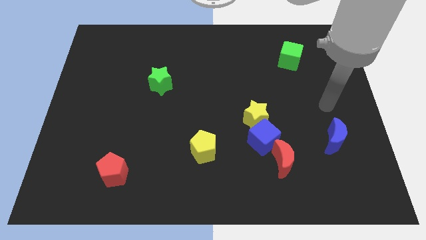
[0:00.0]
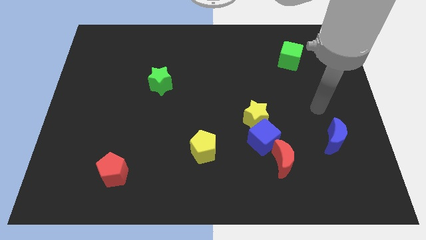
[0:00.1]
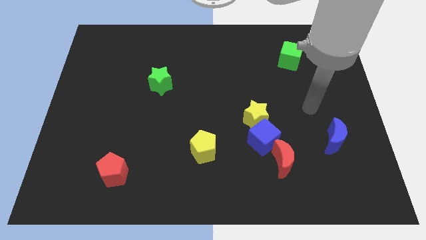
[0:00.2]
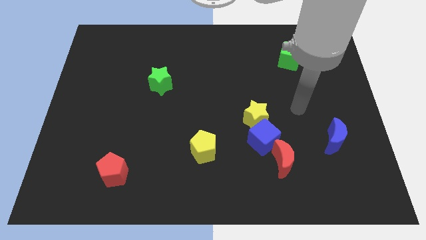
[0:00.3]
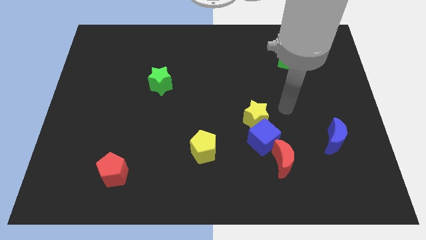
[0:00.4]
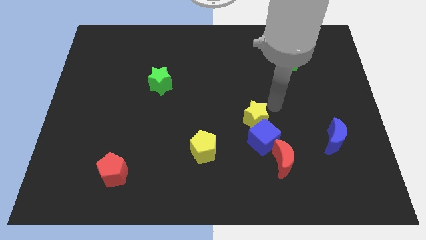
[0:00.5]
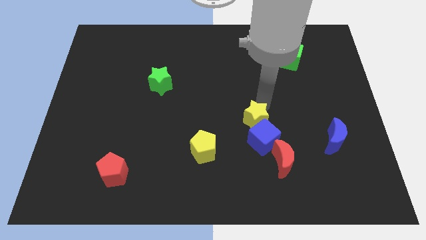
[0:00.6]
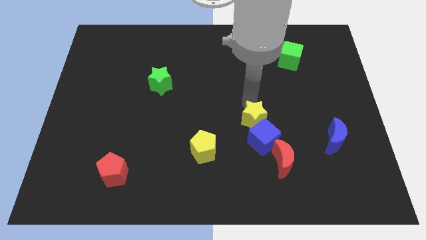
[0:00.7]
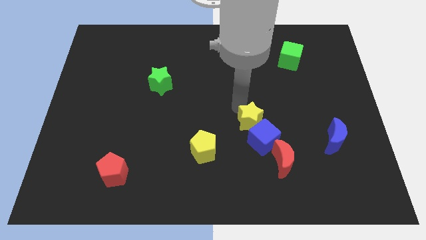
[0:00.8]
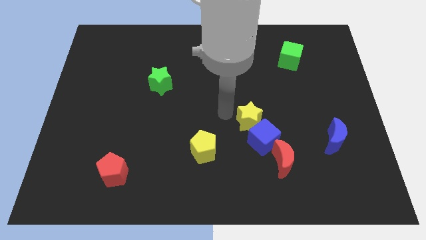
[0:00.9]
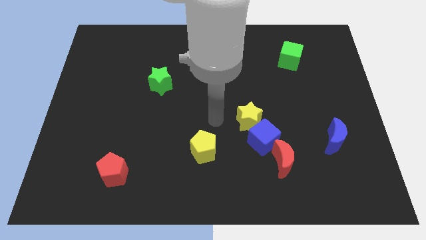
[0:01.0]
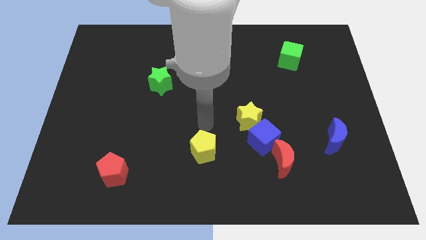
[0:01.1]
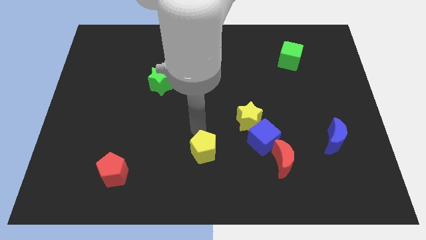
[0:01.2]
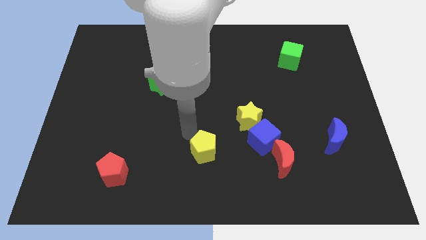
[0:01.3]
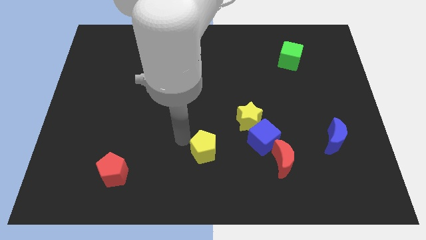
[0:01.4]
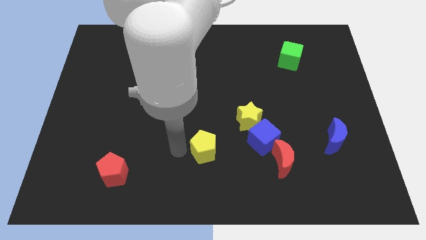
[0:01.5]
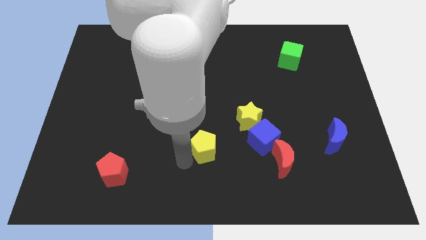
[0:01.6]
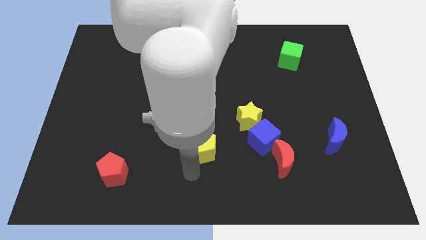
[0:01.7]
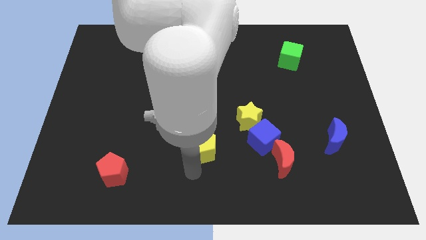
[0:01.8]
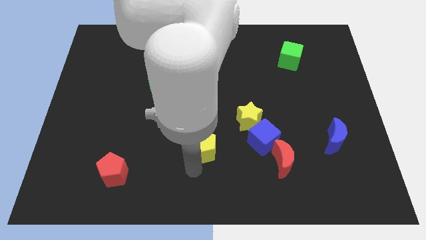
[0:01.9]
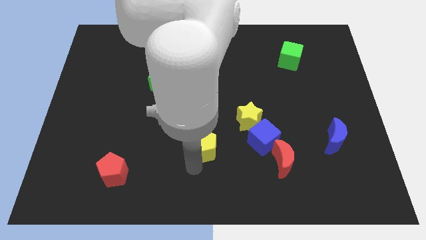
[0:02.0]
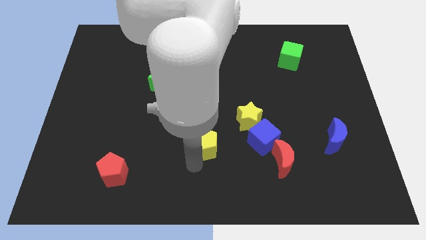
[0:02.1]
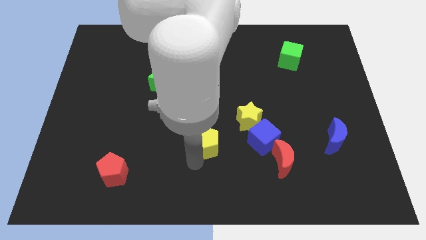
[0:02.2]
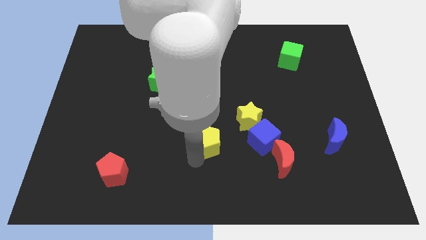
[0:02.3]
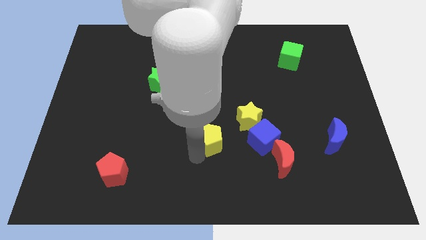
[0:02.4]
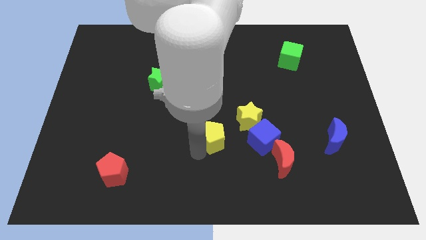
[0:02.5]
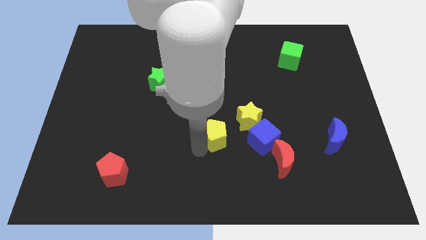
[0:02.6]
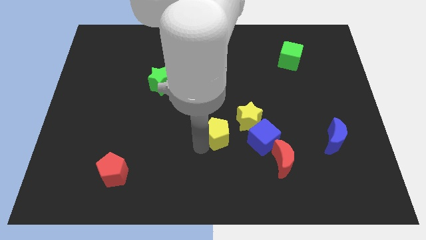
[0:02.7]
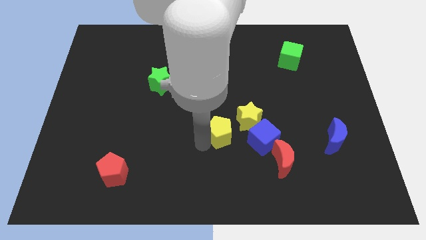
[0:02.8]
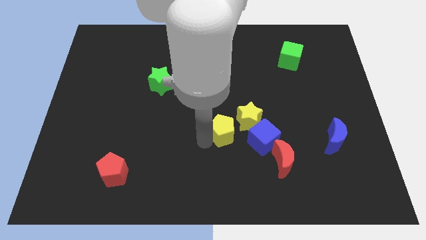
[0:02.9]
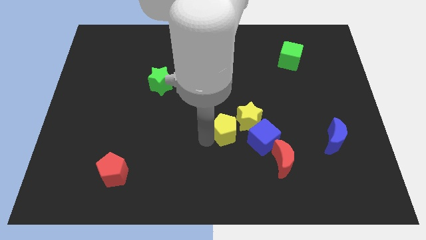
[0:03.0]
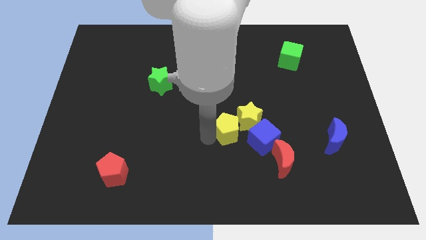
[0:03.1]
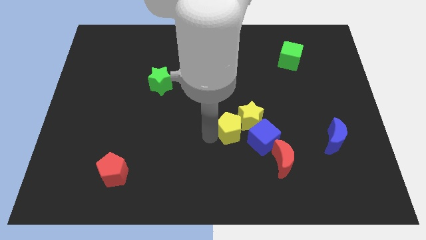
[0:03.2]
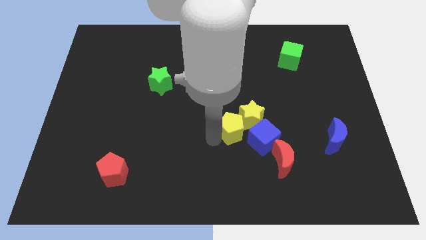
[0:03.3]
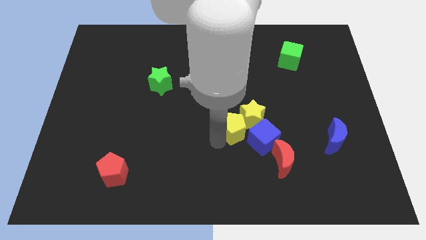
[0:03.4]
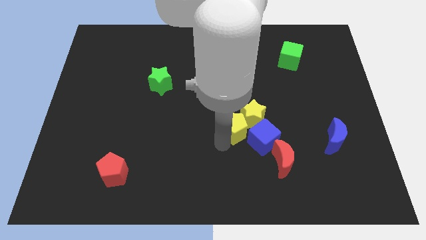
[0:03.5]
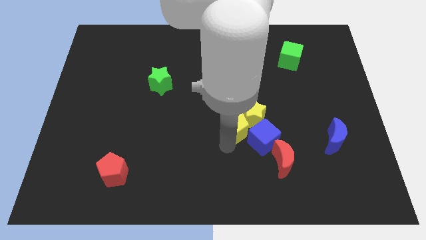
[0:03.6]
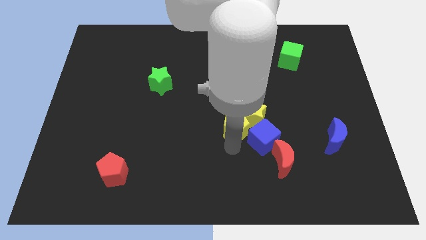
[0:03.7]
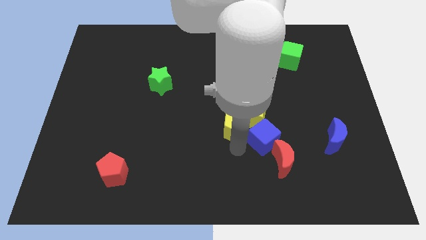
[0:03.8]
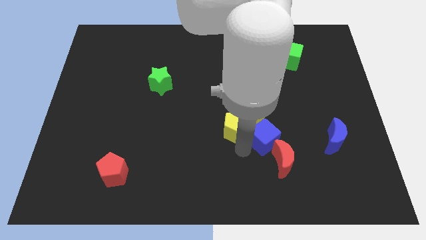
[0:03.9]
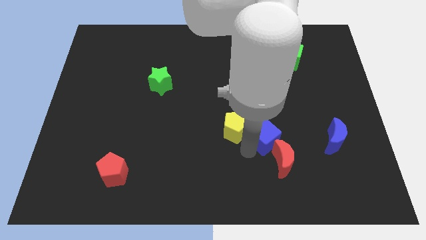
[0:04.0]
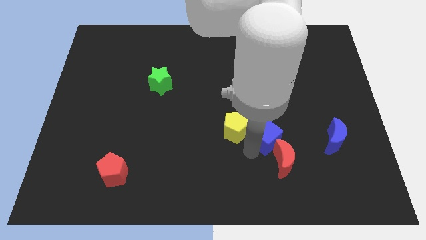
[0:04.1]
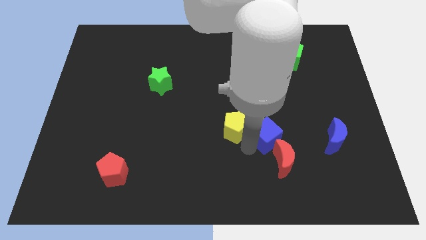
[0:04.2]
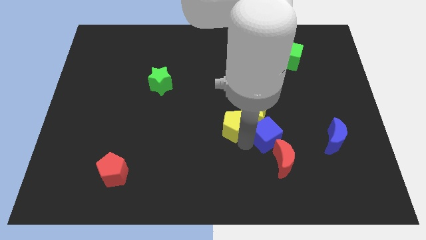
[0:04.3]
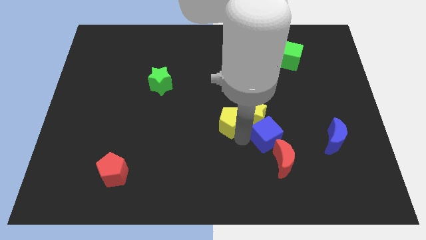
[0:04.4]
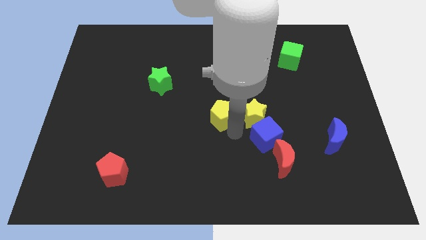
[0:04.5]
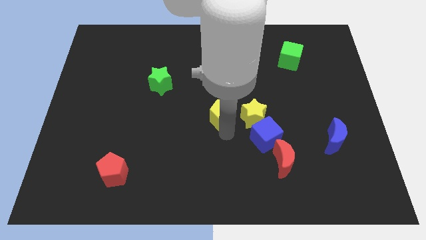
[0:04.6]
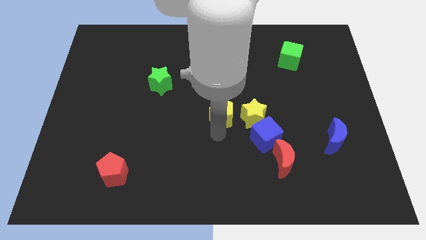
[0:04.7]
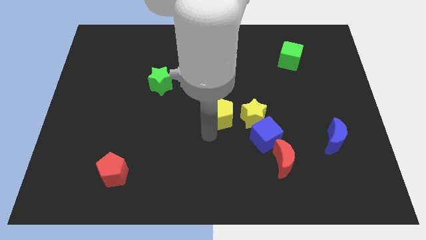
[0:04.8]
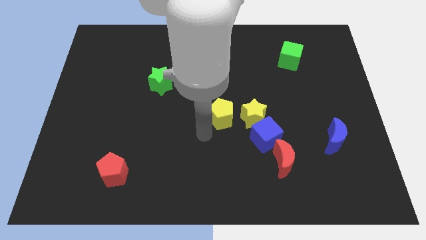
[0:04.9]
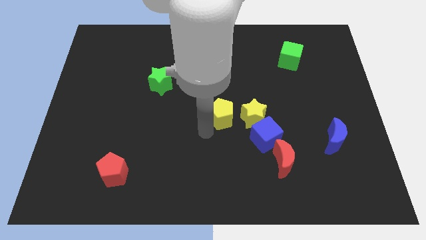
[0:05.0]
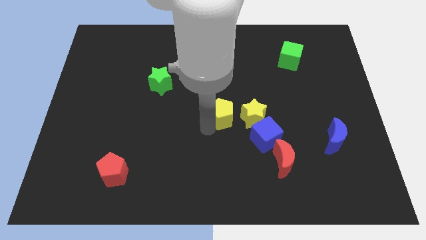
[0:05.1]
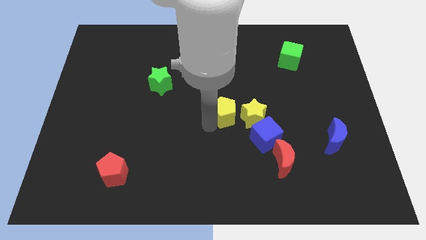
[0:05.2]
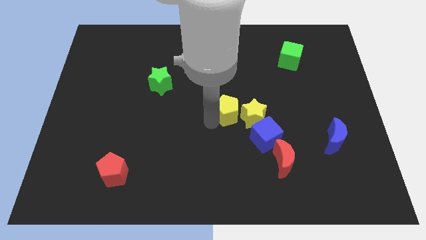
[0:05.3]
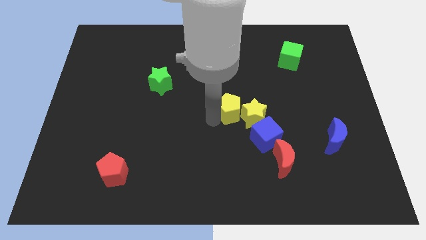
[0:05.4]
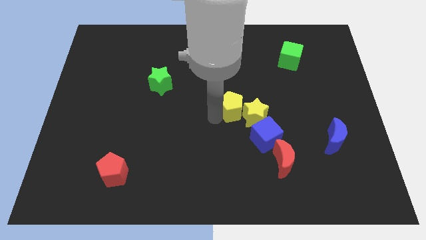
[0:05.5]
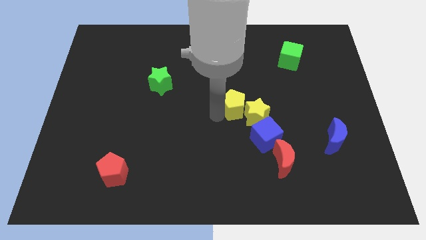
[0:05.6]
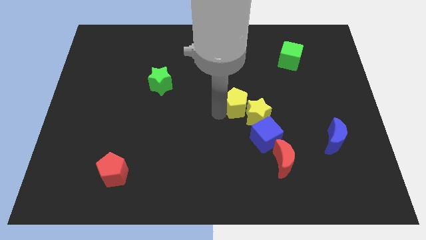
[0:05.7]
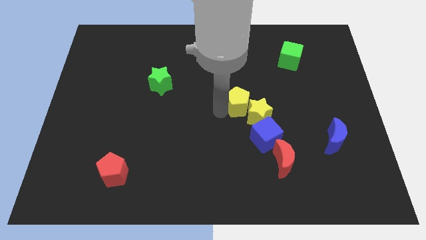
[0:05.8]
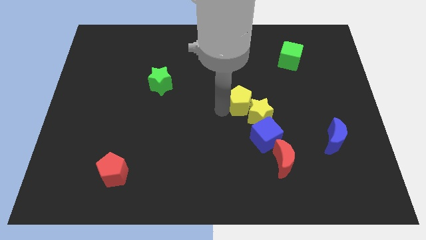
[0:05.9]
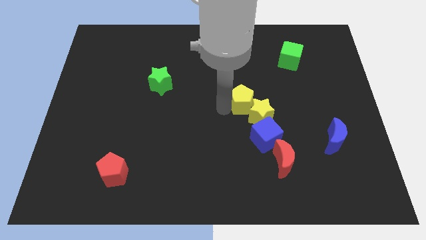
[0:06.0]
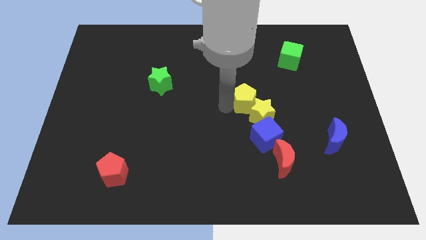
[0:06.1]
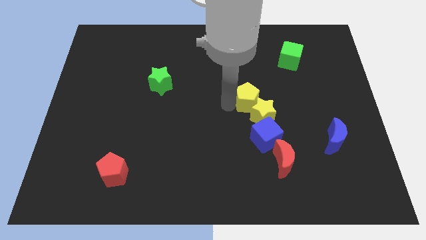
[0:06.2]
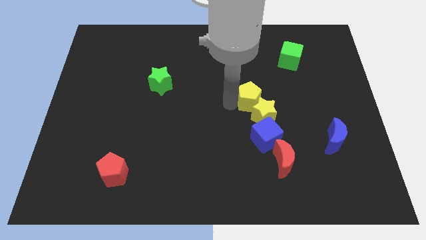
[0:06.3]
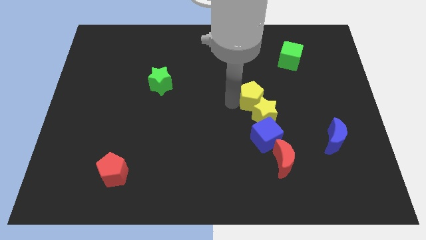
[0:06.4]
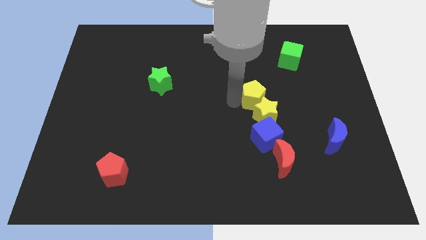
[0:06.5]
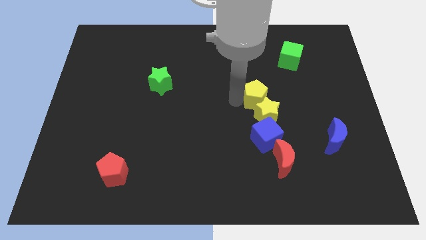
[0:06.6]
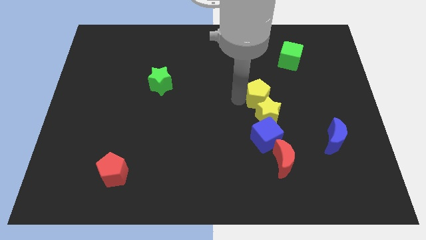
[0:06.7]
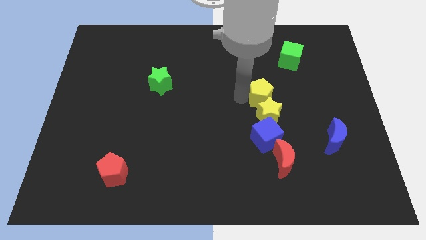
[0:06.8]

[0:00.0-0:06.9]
slide the yellow pentagon upwards and right

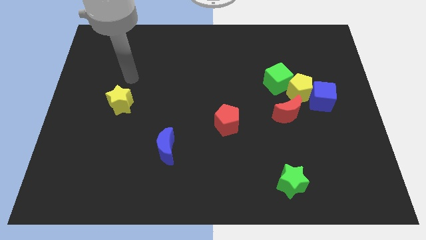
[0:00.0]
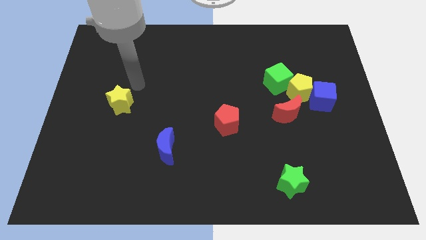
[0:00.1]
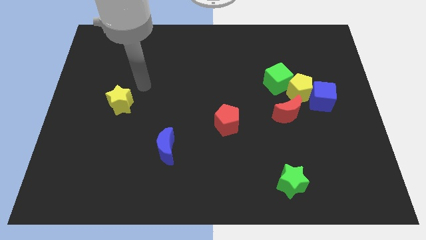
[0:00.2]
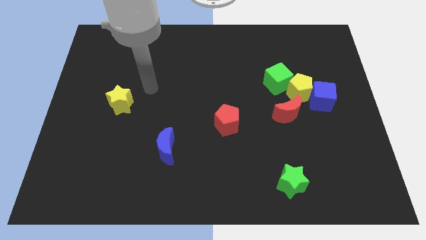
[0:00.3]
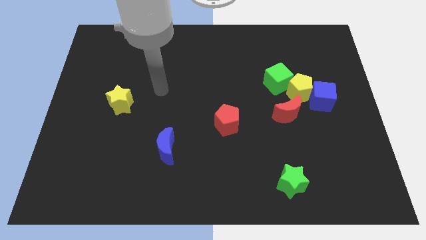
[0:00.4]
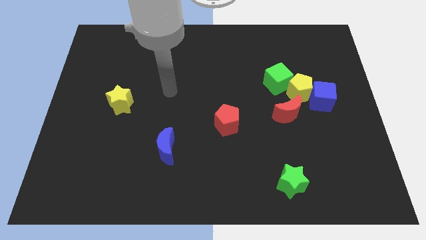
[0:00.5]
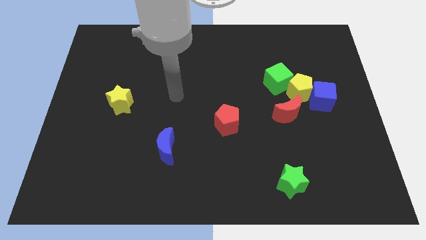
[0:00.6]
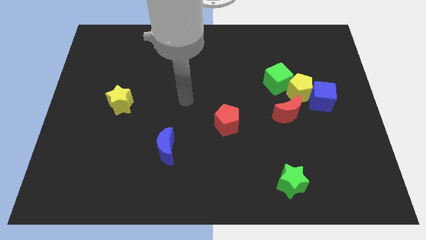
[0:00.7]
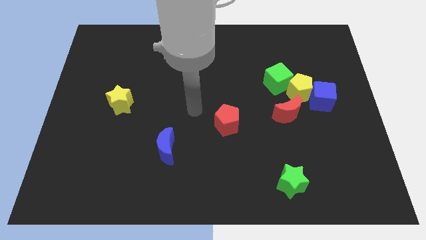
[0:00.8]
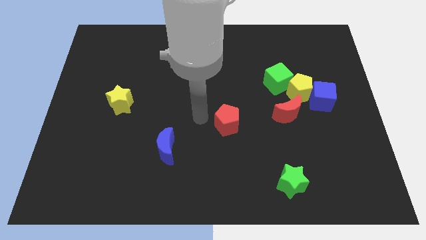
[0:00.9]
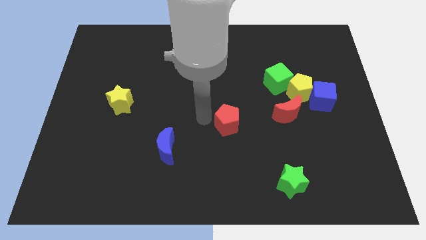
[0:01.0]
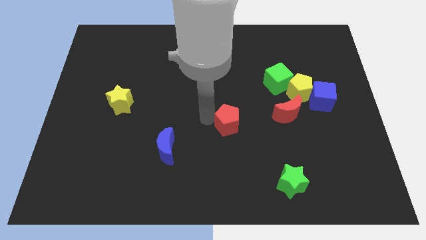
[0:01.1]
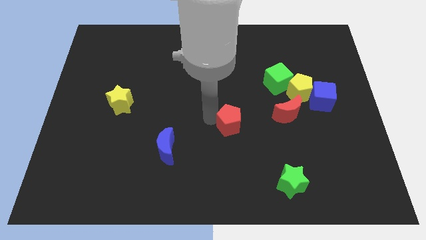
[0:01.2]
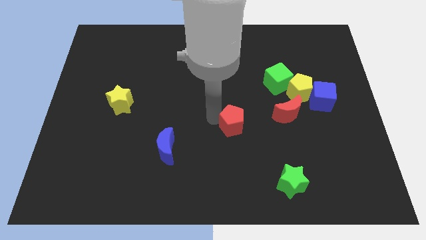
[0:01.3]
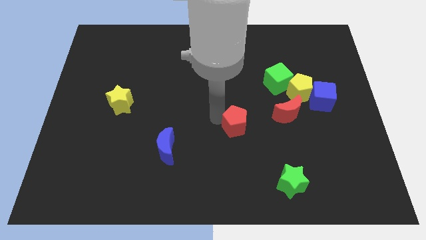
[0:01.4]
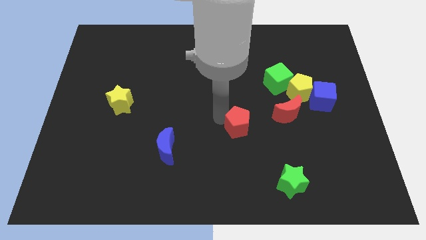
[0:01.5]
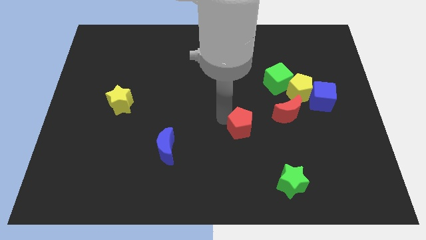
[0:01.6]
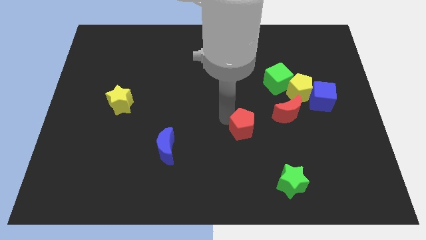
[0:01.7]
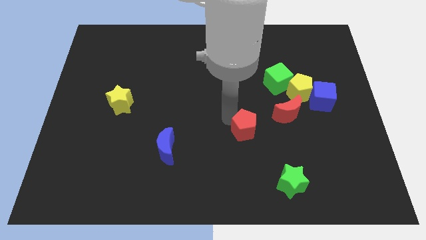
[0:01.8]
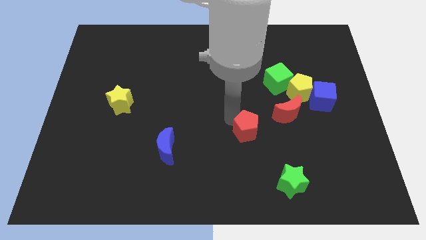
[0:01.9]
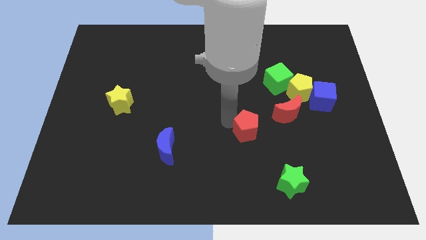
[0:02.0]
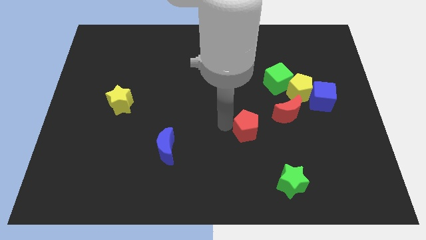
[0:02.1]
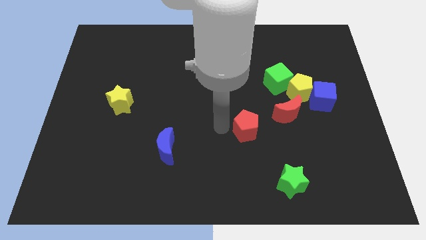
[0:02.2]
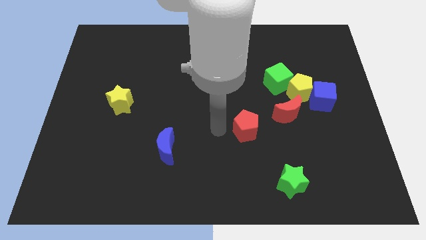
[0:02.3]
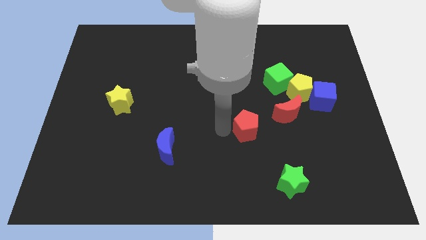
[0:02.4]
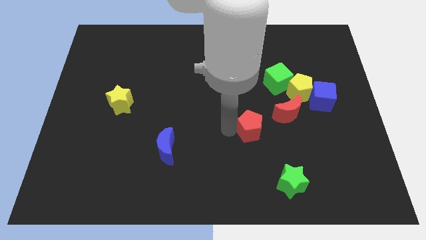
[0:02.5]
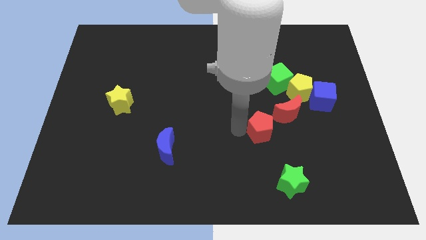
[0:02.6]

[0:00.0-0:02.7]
slightly move the red pentagon to the right
